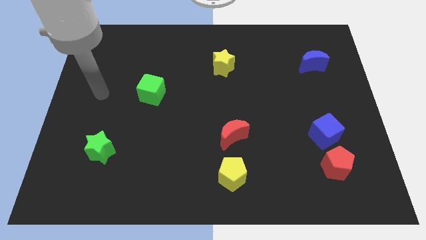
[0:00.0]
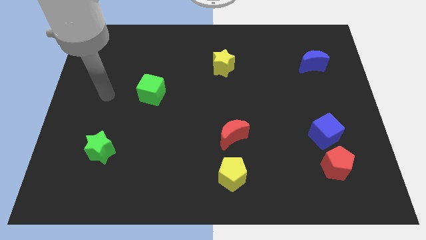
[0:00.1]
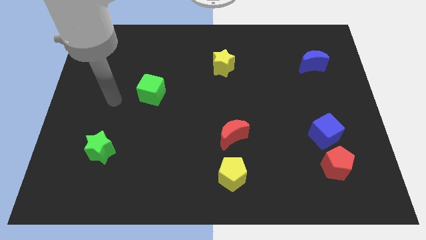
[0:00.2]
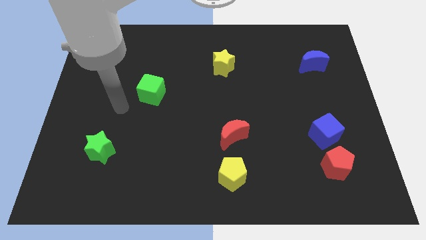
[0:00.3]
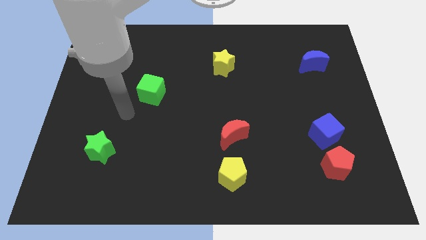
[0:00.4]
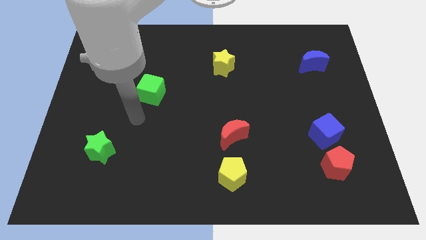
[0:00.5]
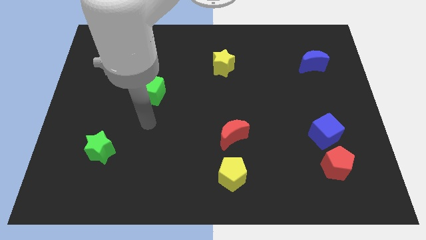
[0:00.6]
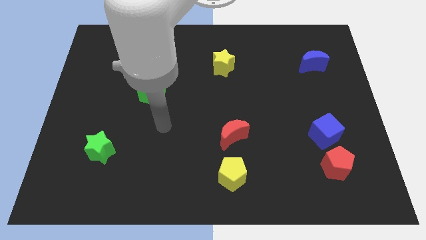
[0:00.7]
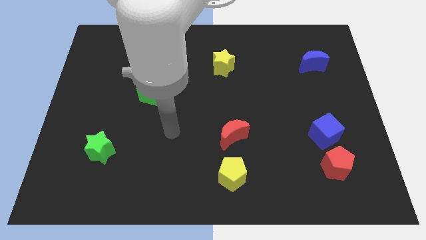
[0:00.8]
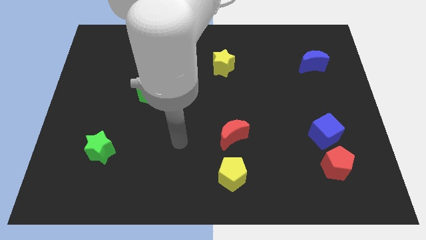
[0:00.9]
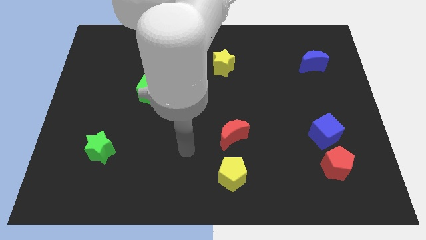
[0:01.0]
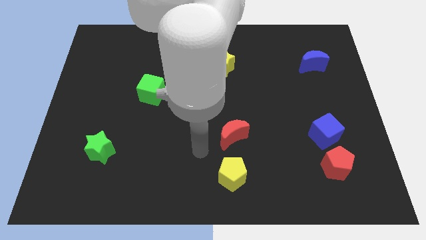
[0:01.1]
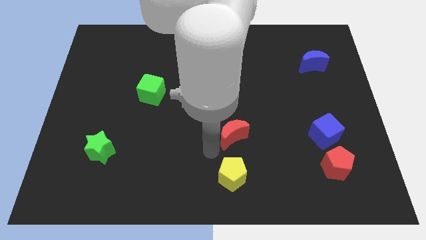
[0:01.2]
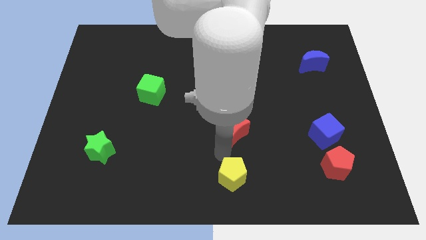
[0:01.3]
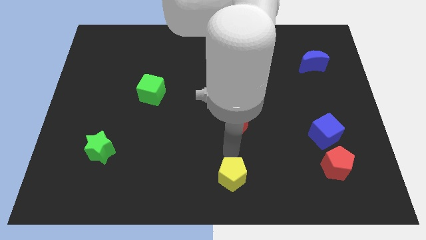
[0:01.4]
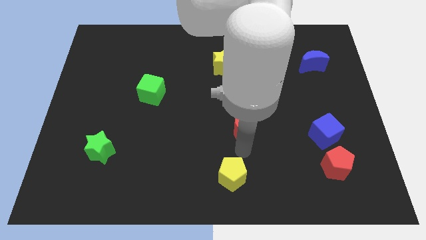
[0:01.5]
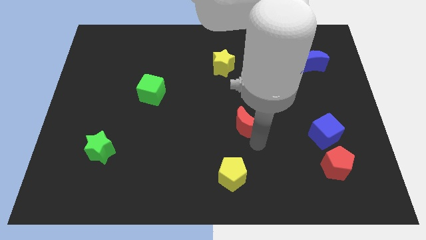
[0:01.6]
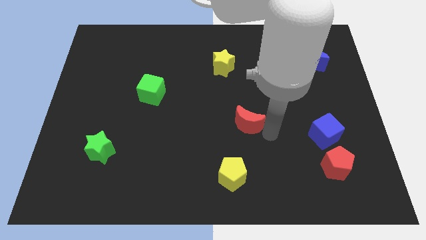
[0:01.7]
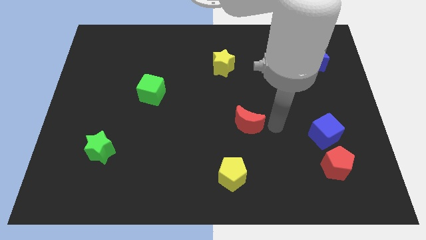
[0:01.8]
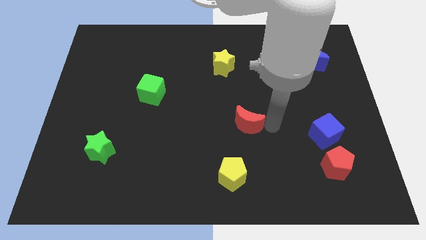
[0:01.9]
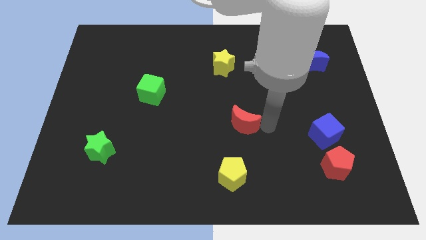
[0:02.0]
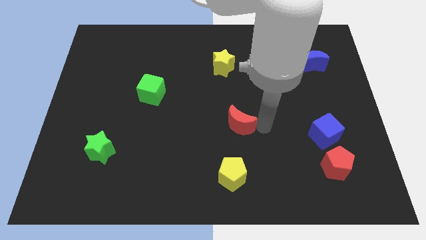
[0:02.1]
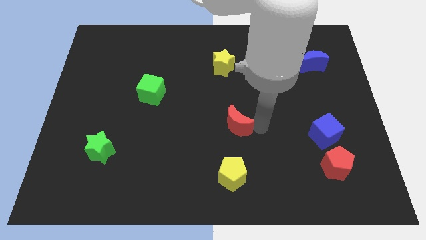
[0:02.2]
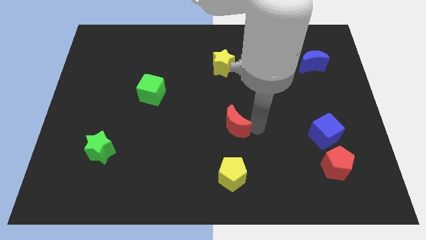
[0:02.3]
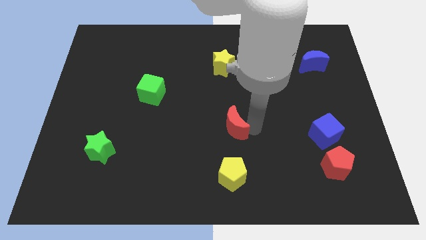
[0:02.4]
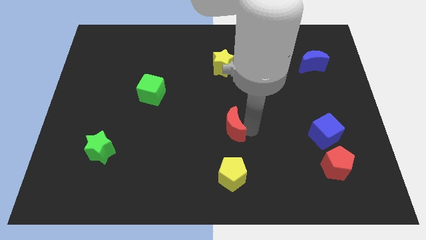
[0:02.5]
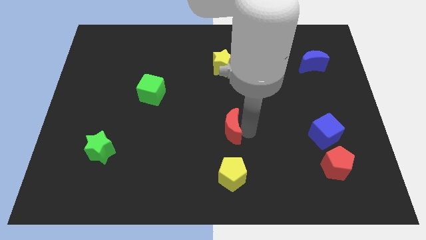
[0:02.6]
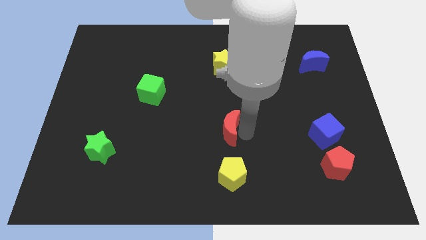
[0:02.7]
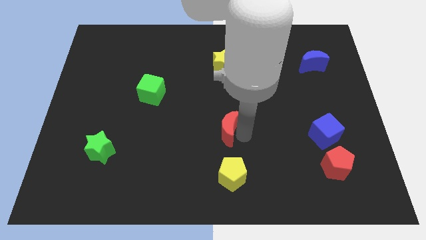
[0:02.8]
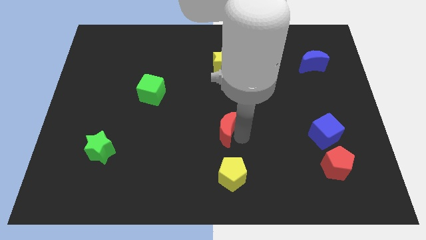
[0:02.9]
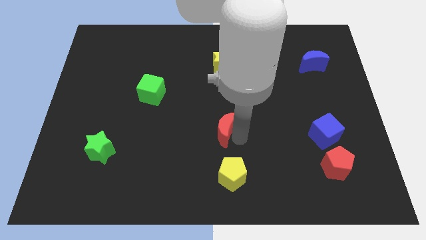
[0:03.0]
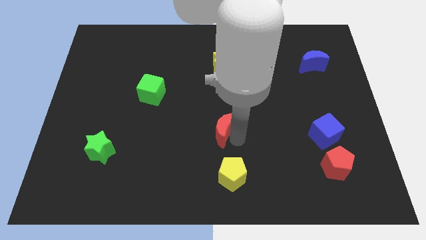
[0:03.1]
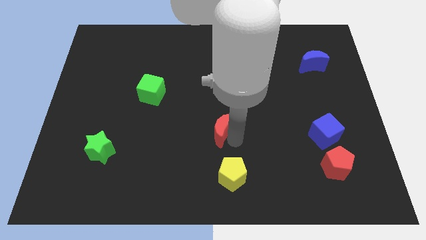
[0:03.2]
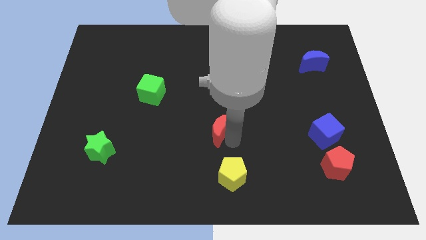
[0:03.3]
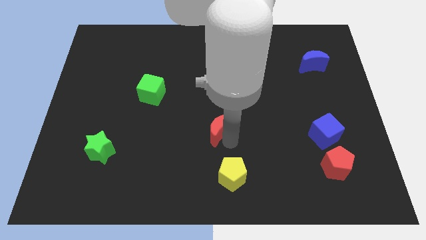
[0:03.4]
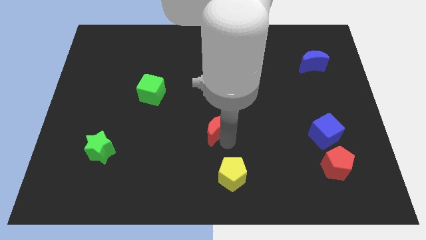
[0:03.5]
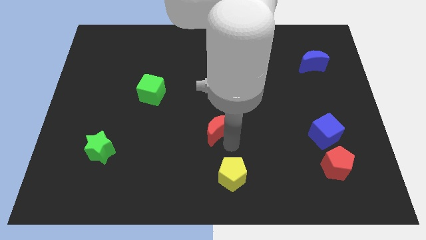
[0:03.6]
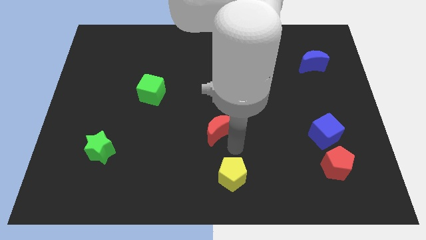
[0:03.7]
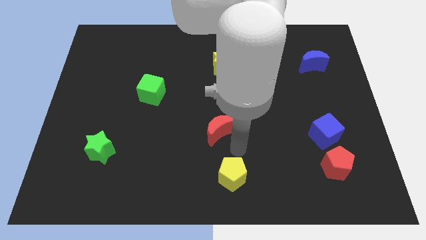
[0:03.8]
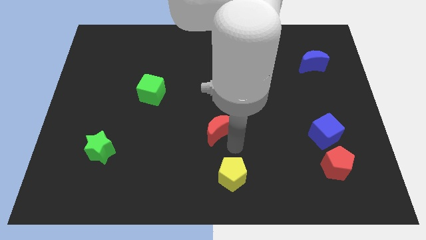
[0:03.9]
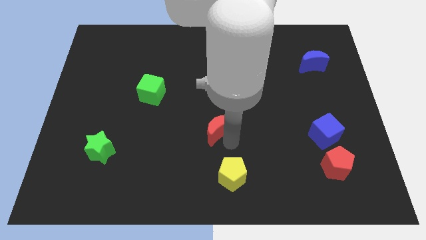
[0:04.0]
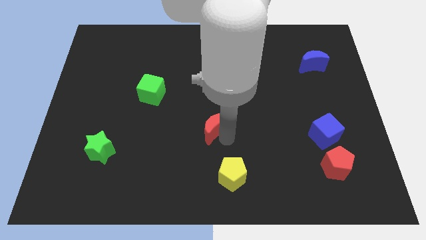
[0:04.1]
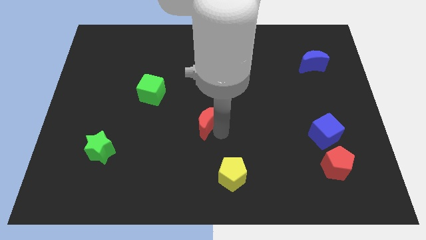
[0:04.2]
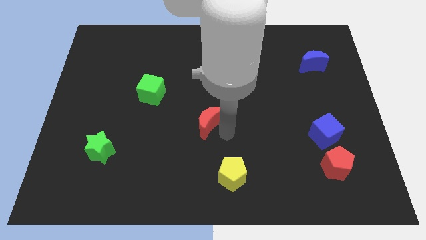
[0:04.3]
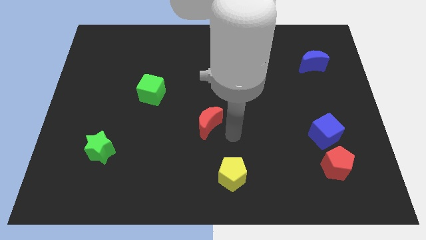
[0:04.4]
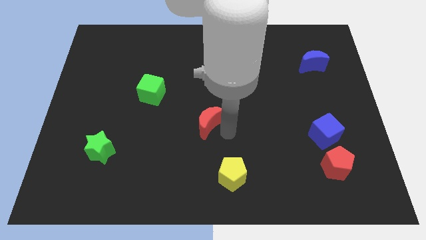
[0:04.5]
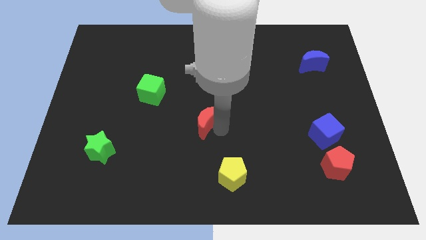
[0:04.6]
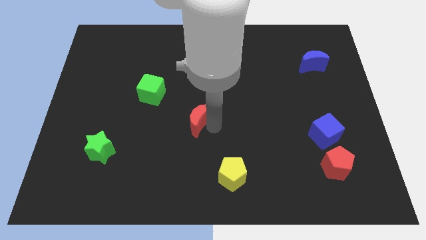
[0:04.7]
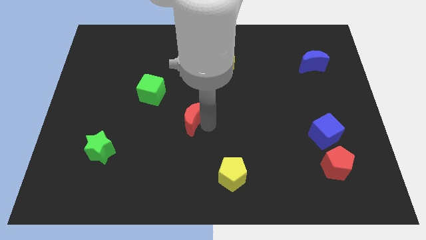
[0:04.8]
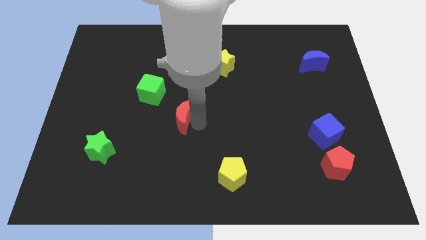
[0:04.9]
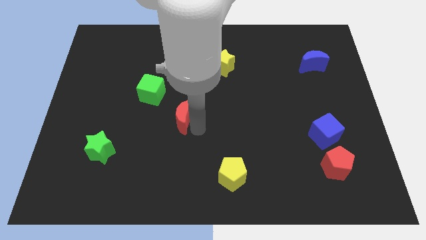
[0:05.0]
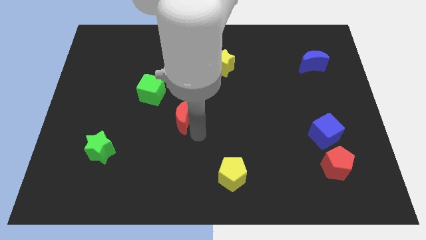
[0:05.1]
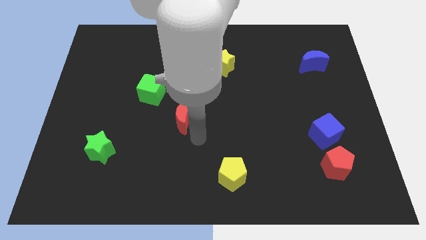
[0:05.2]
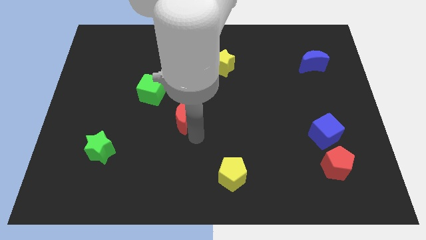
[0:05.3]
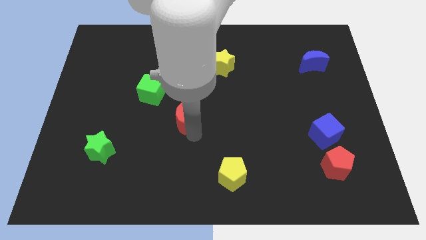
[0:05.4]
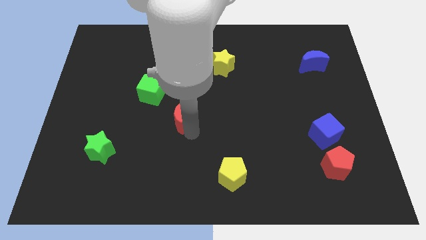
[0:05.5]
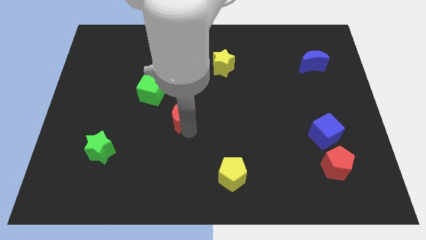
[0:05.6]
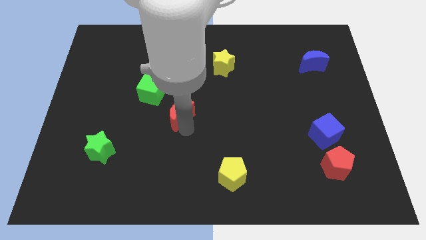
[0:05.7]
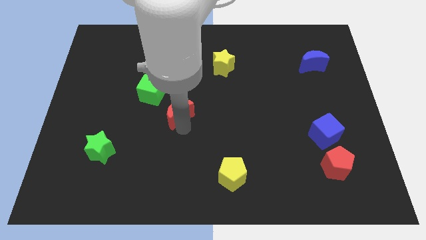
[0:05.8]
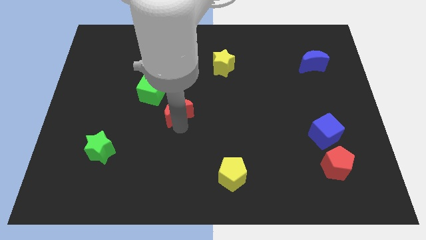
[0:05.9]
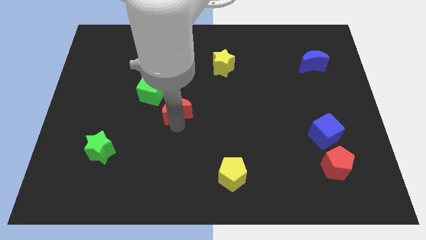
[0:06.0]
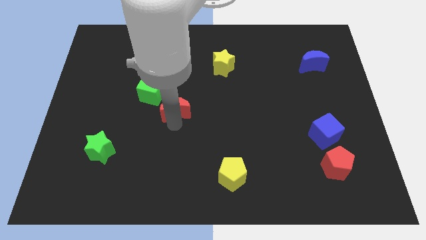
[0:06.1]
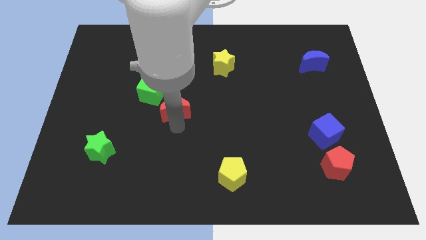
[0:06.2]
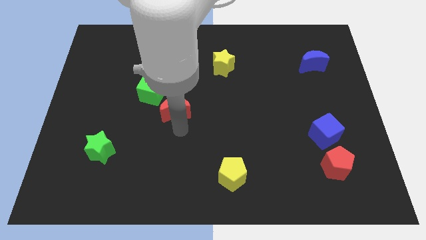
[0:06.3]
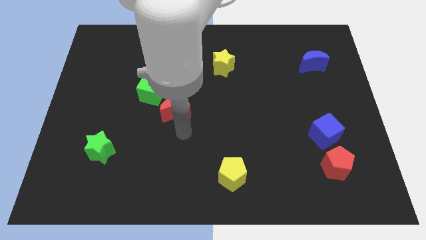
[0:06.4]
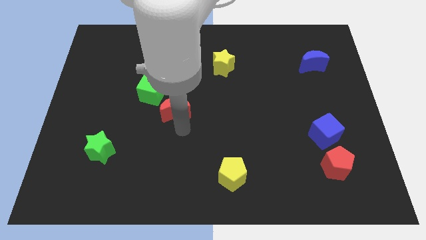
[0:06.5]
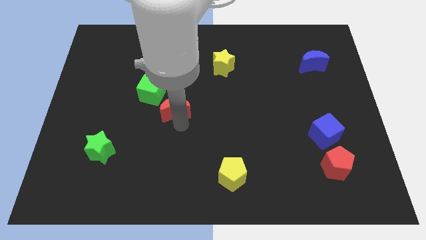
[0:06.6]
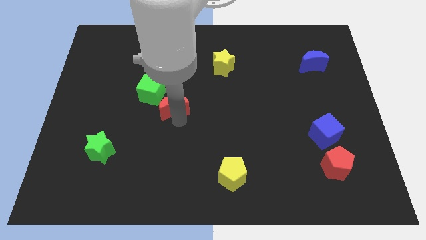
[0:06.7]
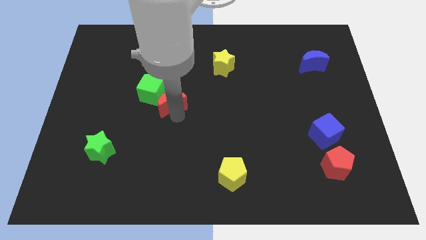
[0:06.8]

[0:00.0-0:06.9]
push the red moon towards the green cube

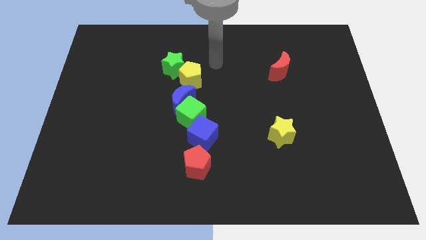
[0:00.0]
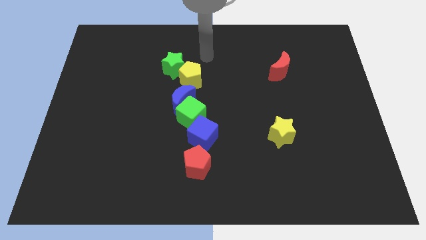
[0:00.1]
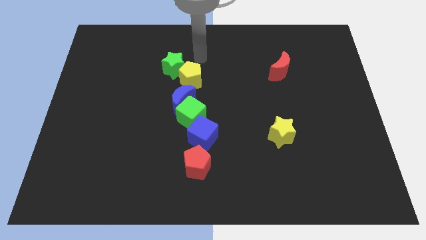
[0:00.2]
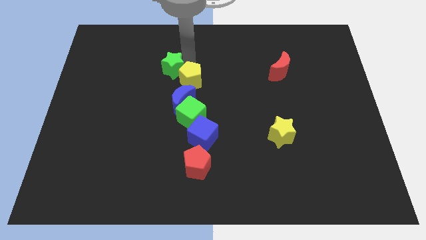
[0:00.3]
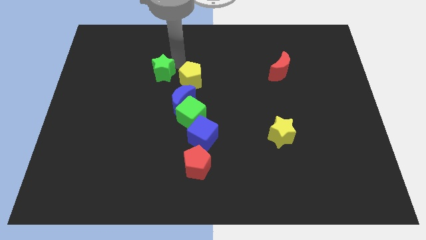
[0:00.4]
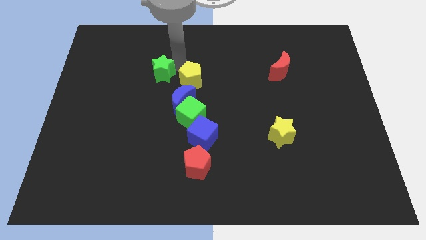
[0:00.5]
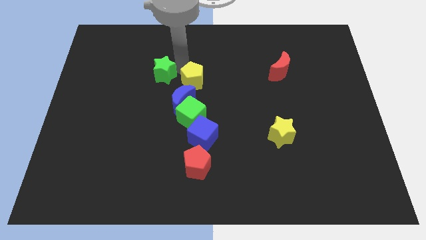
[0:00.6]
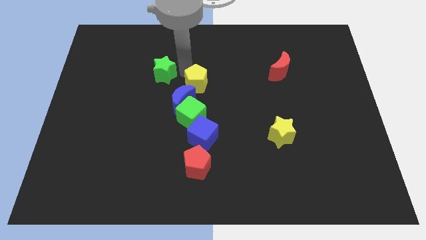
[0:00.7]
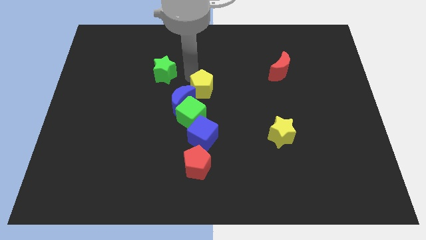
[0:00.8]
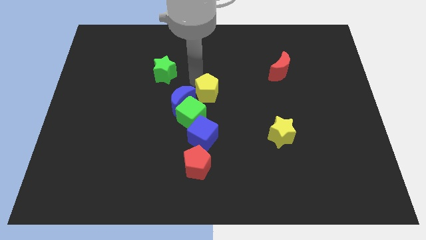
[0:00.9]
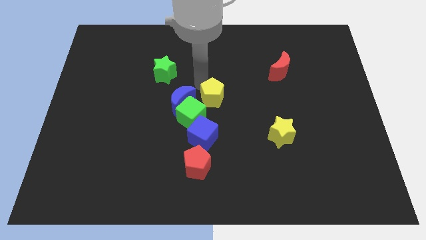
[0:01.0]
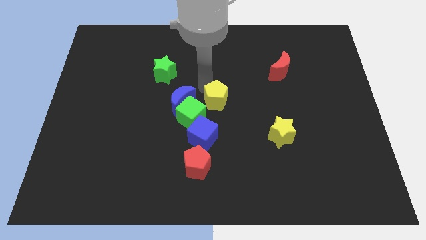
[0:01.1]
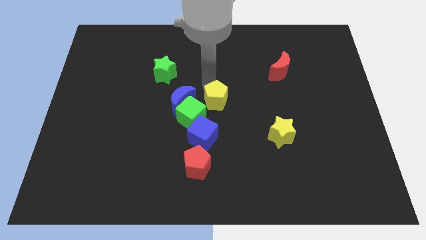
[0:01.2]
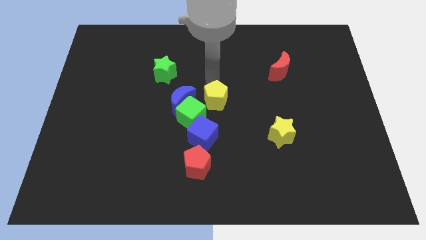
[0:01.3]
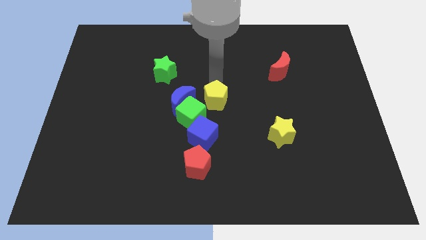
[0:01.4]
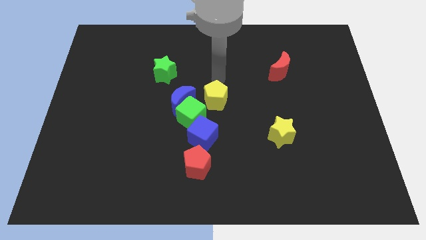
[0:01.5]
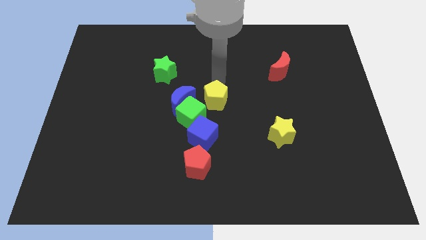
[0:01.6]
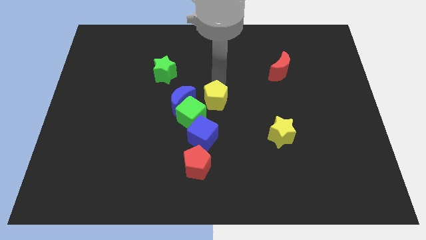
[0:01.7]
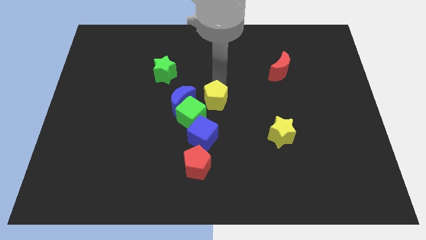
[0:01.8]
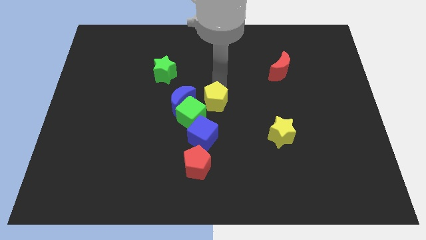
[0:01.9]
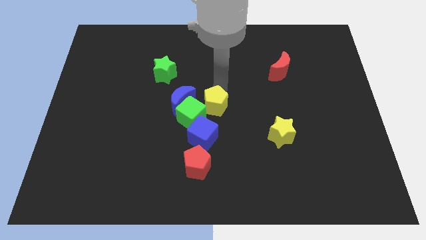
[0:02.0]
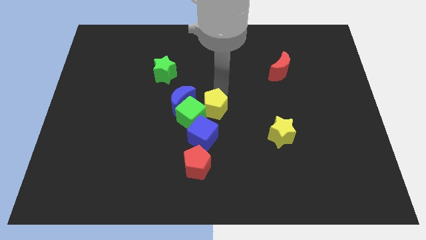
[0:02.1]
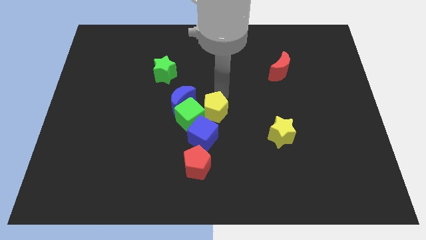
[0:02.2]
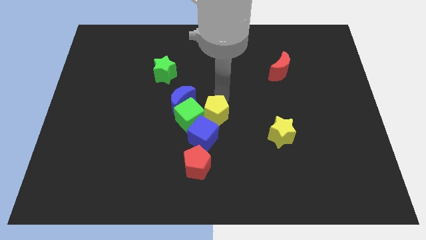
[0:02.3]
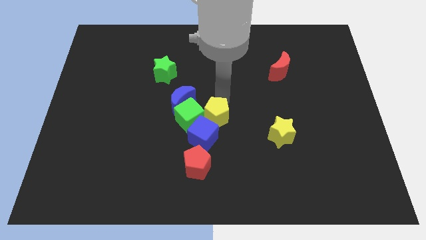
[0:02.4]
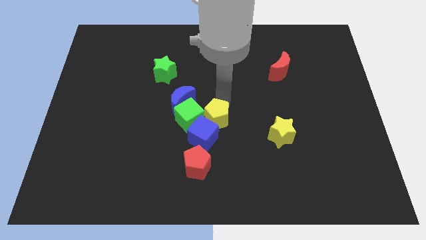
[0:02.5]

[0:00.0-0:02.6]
slide the yellow pentagon towards the blue cube
